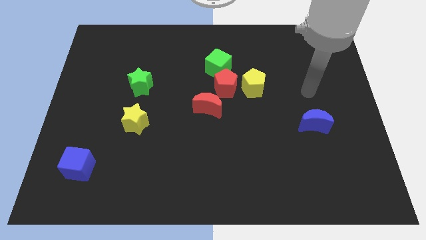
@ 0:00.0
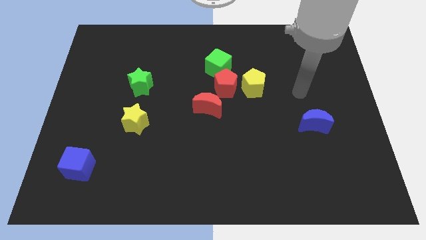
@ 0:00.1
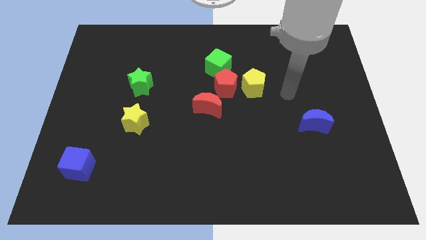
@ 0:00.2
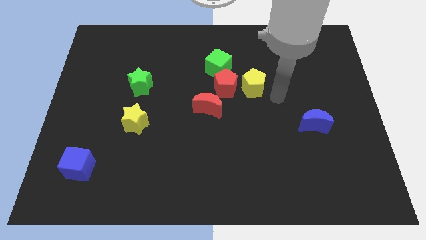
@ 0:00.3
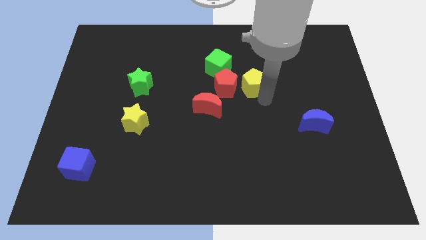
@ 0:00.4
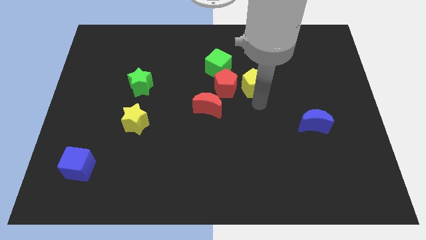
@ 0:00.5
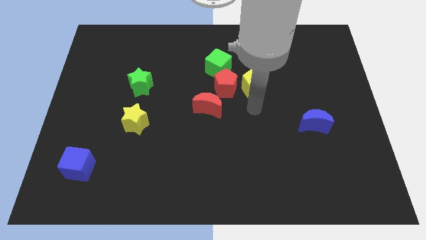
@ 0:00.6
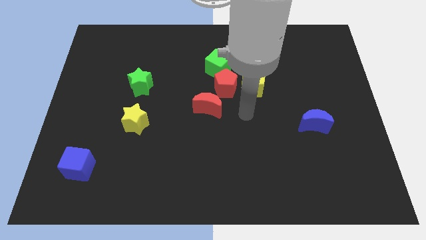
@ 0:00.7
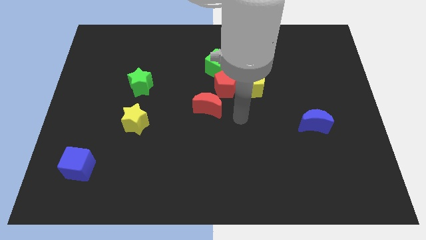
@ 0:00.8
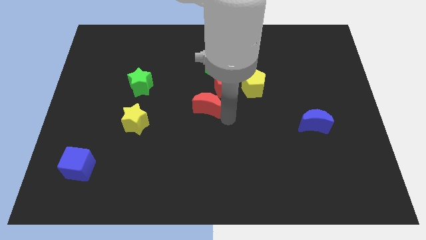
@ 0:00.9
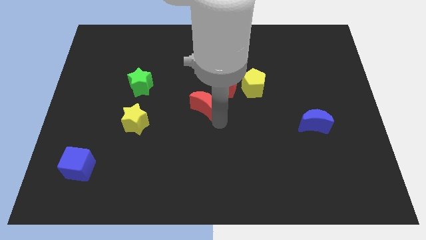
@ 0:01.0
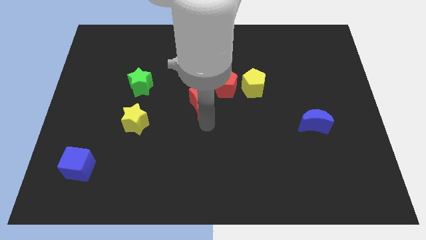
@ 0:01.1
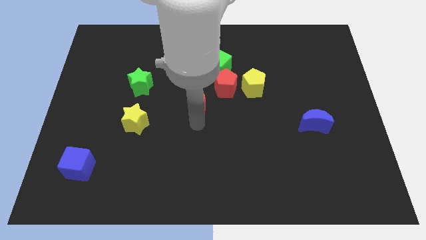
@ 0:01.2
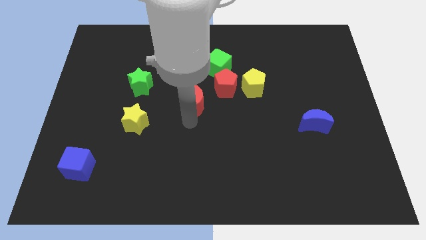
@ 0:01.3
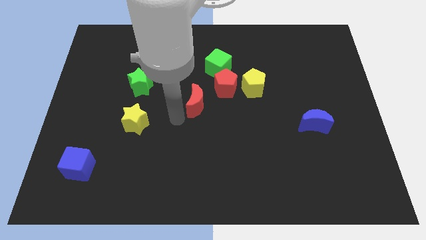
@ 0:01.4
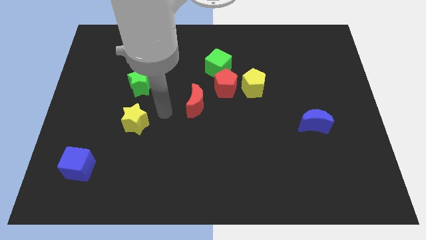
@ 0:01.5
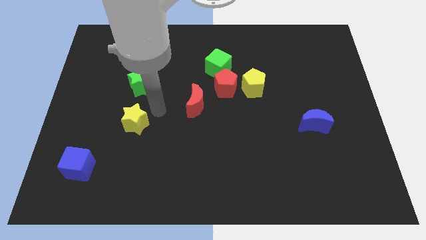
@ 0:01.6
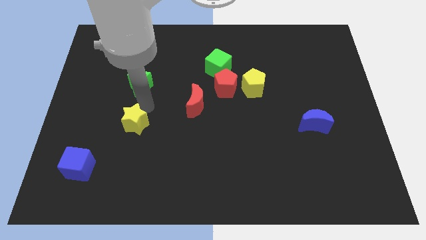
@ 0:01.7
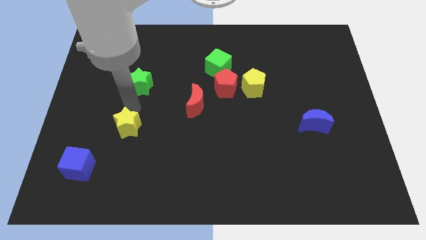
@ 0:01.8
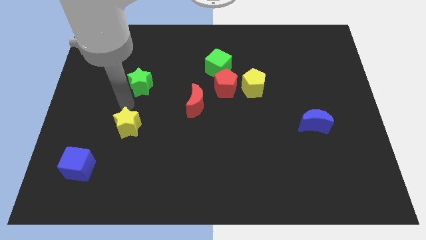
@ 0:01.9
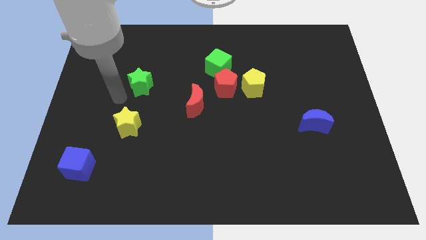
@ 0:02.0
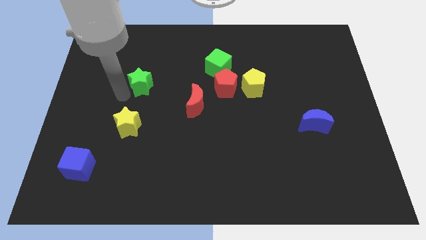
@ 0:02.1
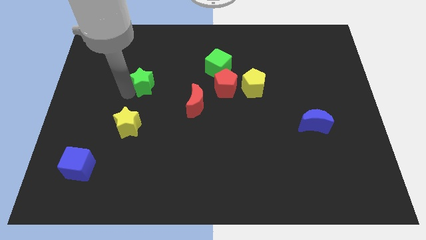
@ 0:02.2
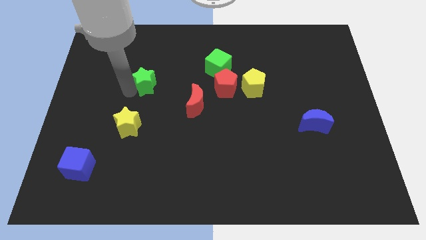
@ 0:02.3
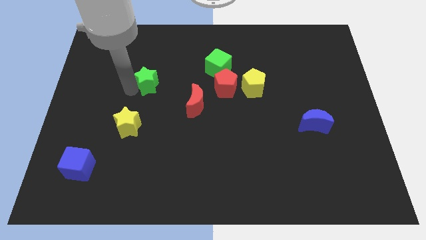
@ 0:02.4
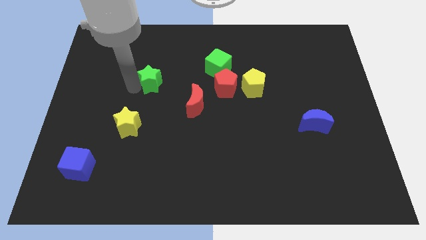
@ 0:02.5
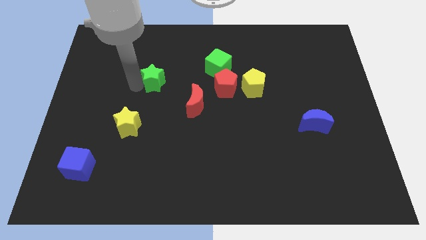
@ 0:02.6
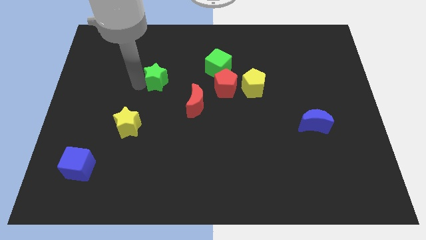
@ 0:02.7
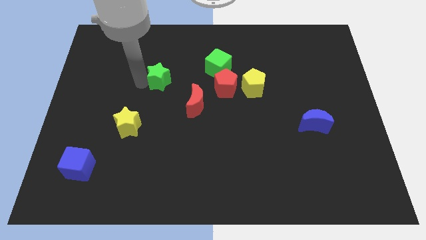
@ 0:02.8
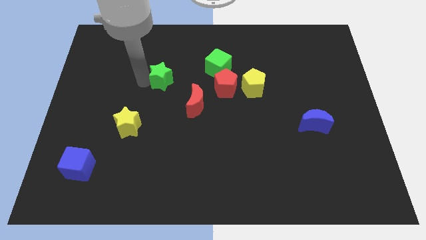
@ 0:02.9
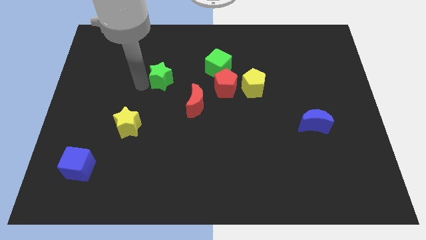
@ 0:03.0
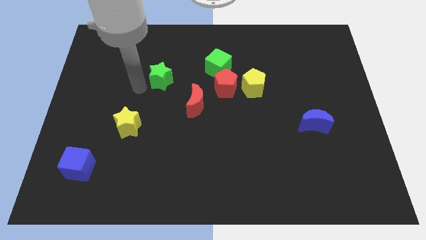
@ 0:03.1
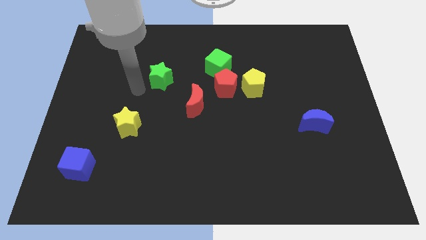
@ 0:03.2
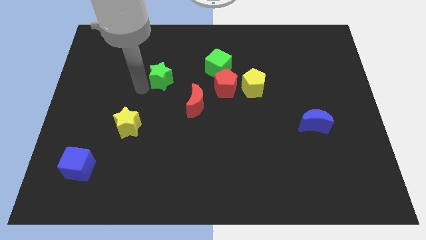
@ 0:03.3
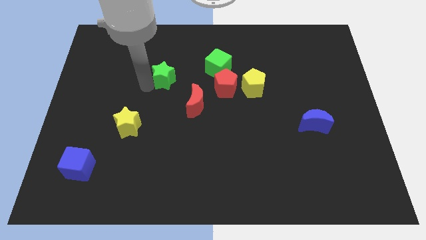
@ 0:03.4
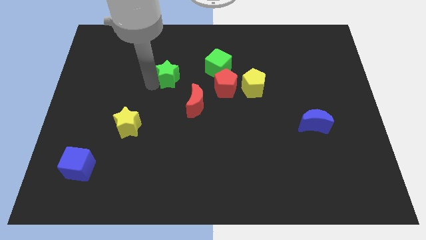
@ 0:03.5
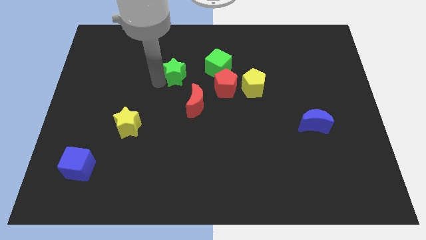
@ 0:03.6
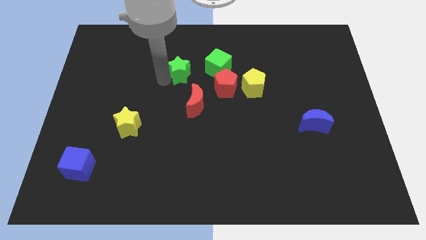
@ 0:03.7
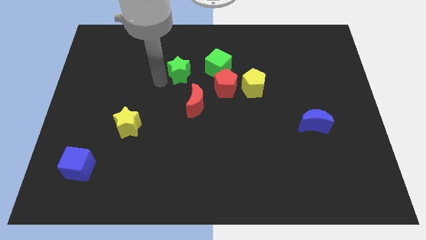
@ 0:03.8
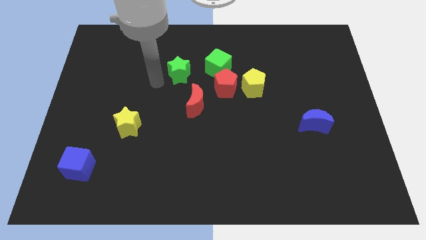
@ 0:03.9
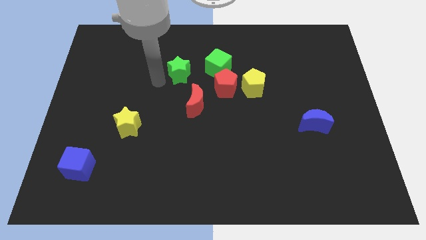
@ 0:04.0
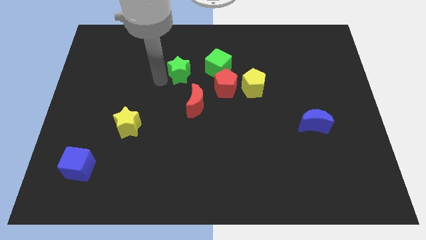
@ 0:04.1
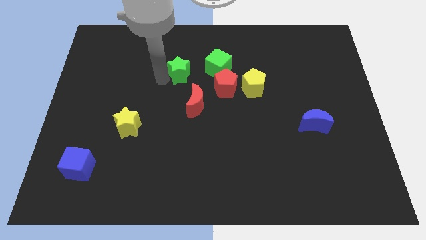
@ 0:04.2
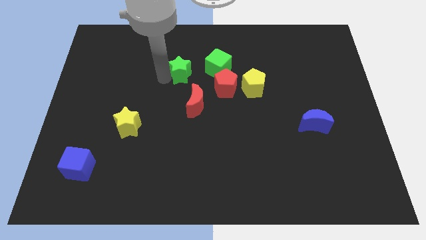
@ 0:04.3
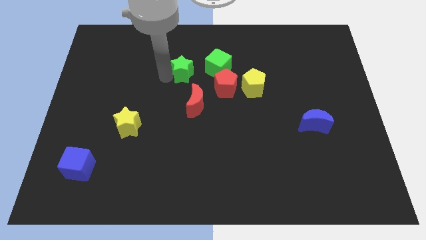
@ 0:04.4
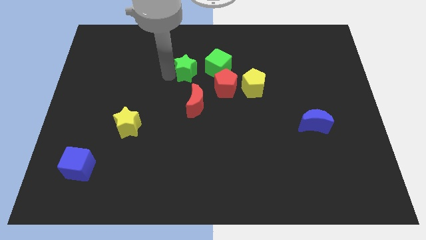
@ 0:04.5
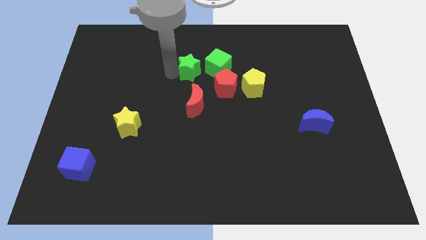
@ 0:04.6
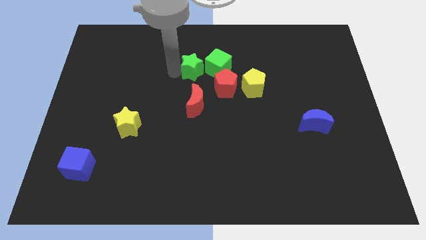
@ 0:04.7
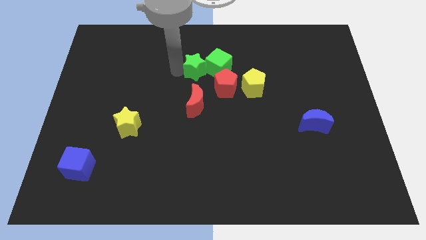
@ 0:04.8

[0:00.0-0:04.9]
push the green star to the green cube

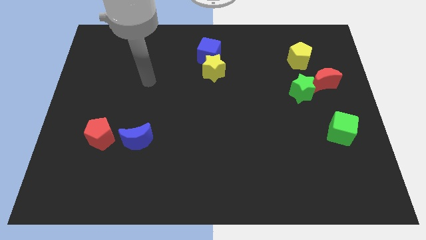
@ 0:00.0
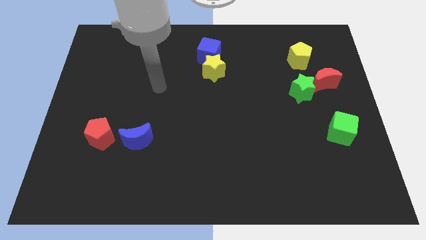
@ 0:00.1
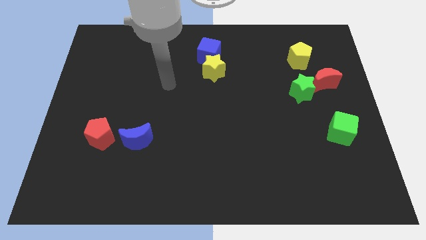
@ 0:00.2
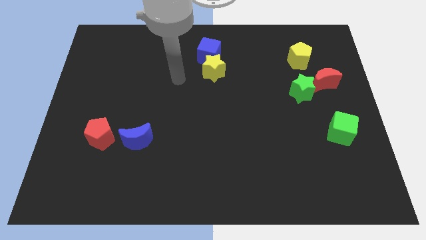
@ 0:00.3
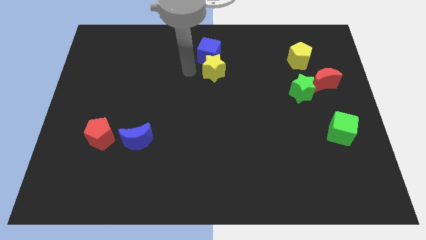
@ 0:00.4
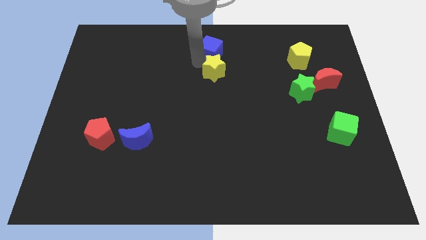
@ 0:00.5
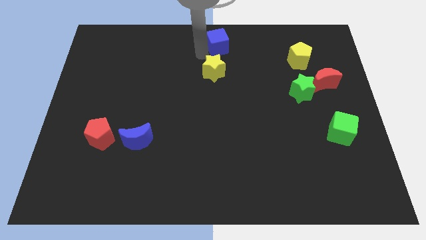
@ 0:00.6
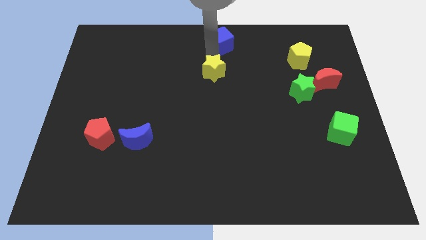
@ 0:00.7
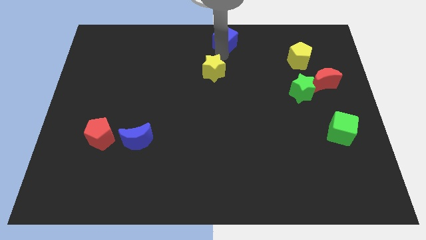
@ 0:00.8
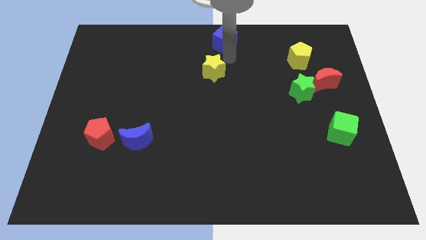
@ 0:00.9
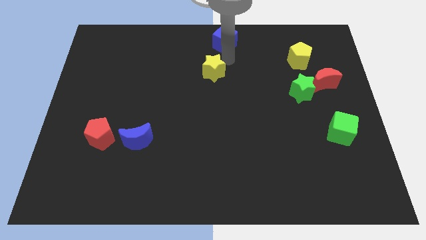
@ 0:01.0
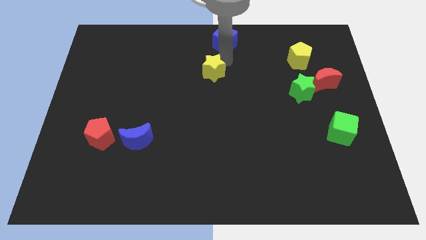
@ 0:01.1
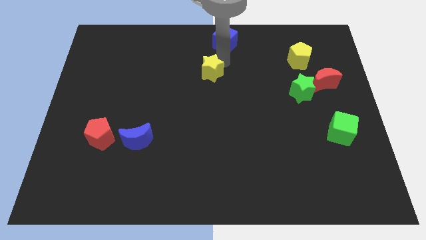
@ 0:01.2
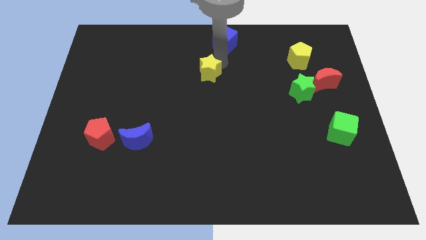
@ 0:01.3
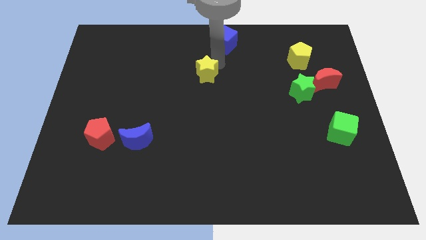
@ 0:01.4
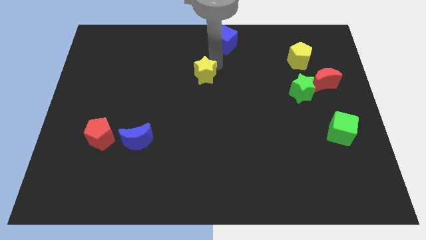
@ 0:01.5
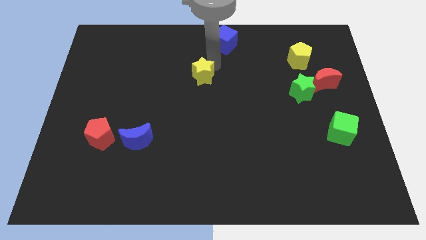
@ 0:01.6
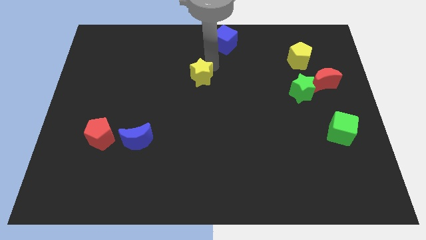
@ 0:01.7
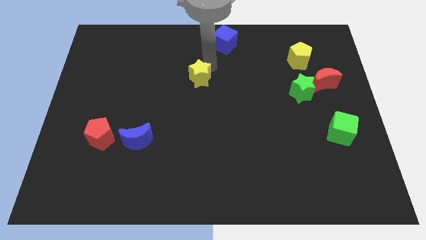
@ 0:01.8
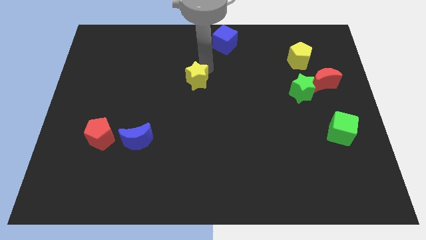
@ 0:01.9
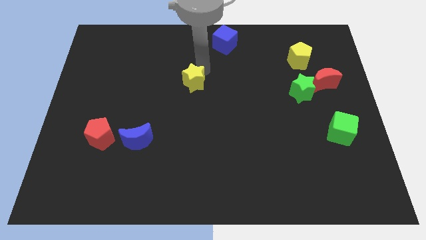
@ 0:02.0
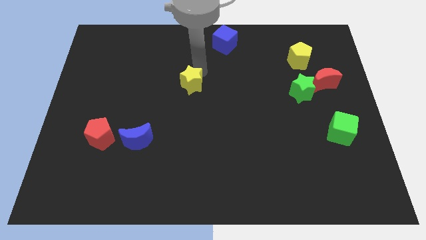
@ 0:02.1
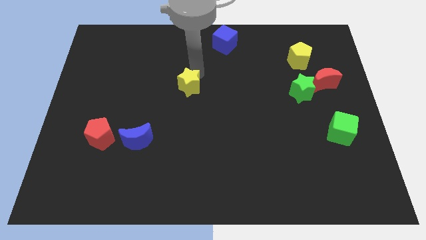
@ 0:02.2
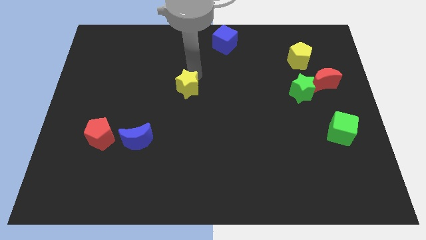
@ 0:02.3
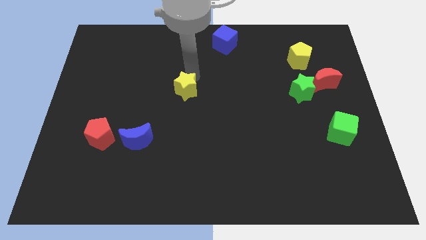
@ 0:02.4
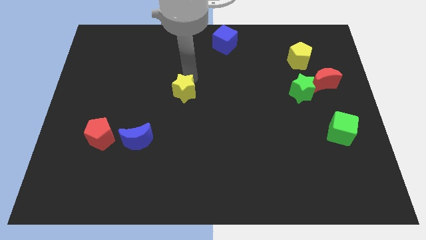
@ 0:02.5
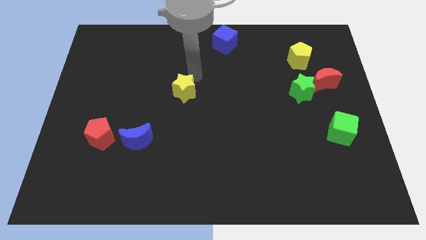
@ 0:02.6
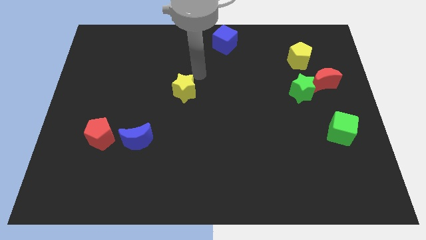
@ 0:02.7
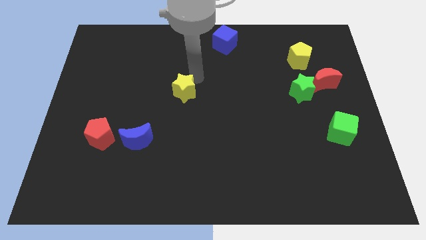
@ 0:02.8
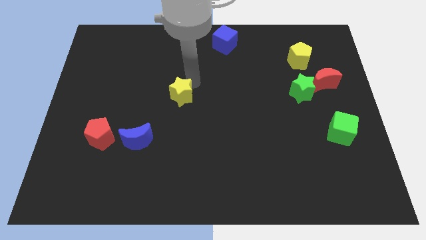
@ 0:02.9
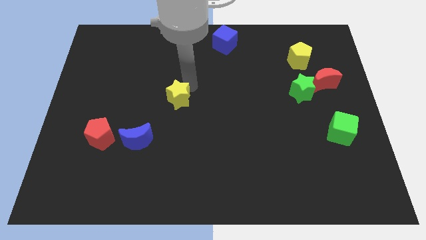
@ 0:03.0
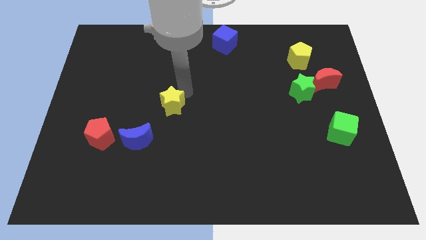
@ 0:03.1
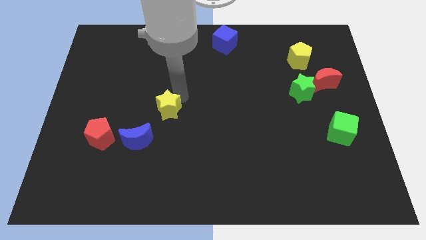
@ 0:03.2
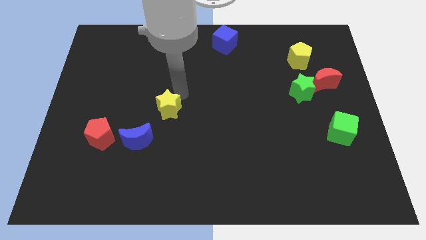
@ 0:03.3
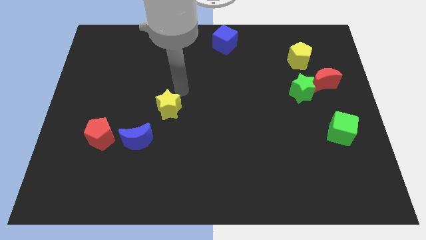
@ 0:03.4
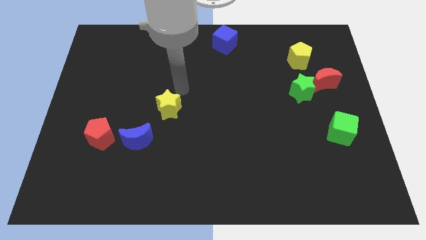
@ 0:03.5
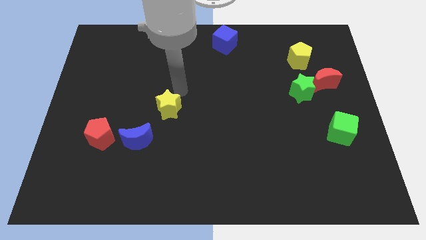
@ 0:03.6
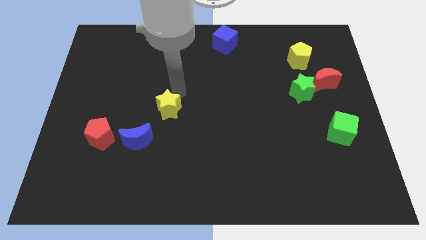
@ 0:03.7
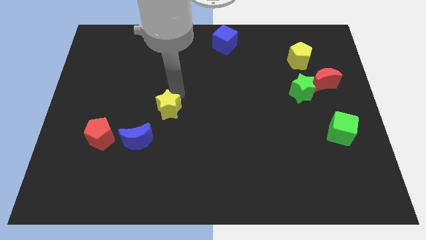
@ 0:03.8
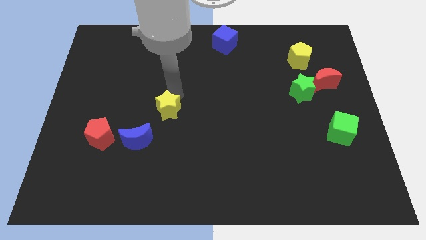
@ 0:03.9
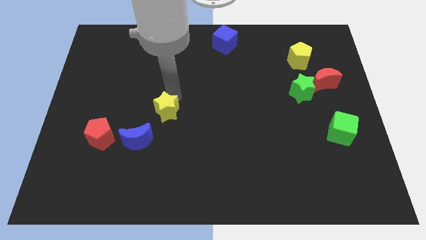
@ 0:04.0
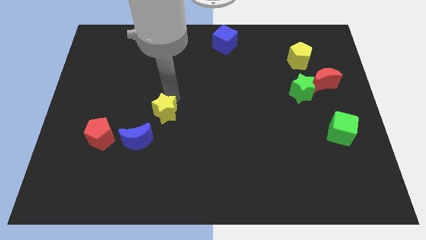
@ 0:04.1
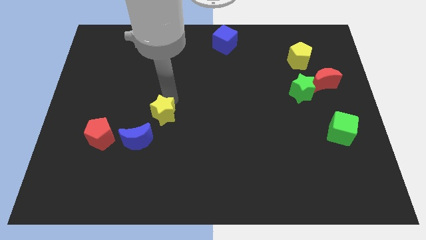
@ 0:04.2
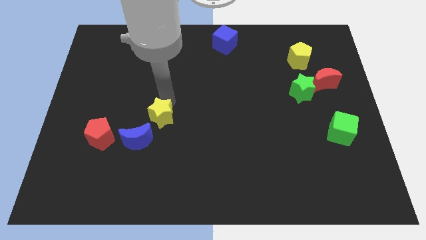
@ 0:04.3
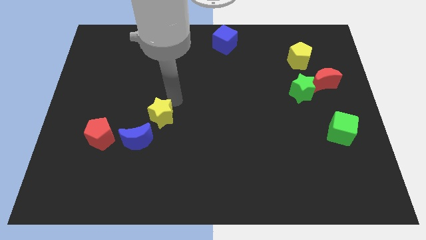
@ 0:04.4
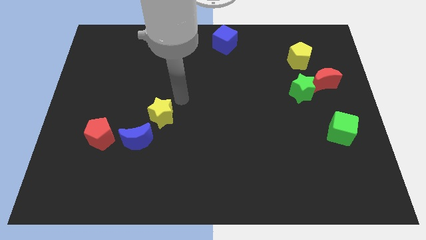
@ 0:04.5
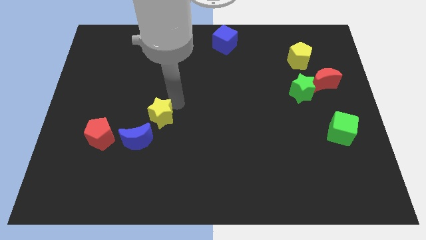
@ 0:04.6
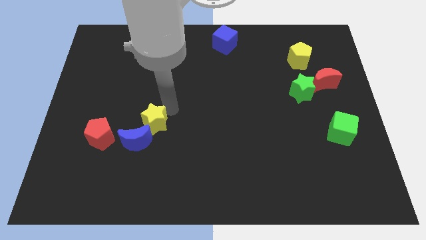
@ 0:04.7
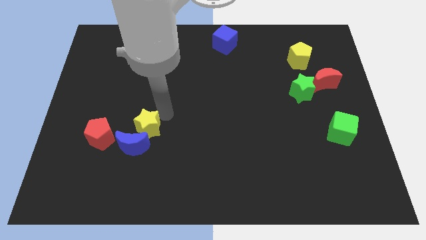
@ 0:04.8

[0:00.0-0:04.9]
put the yellow star next to the blue moon
